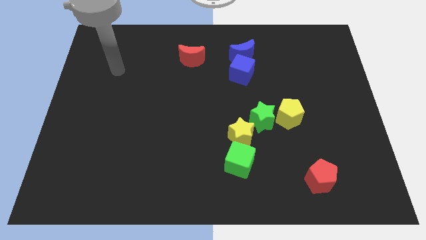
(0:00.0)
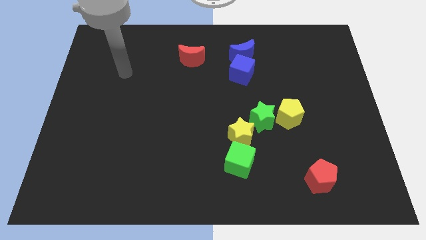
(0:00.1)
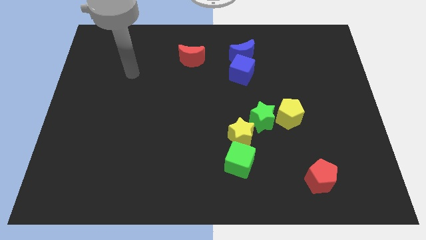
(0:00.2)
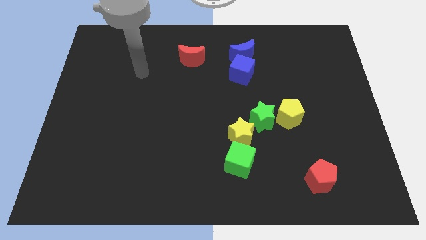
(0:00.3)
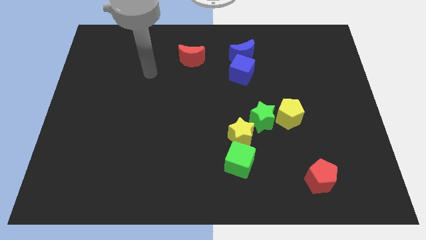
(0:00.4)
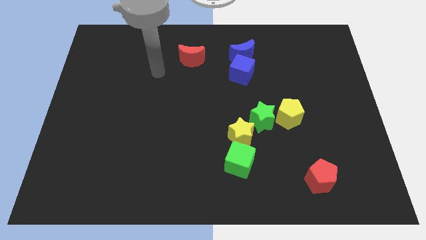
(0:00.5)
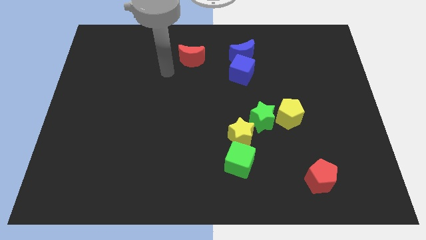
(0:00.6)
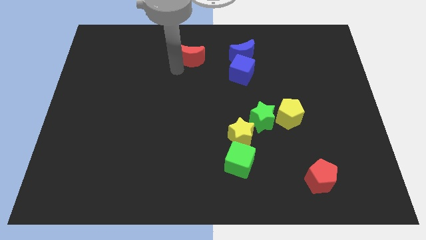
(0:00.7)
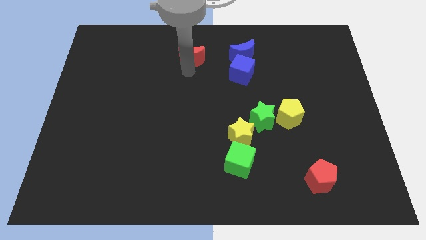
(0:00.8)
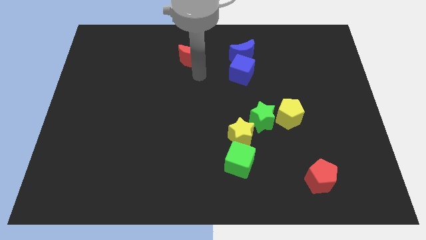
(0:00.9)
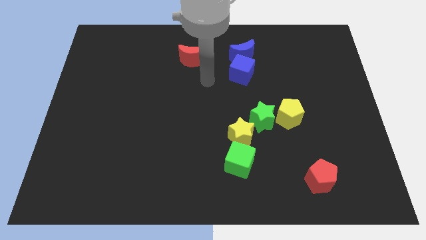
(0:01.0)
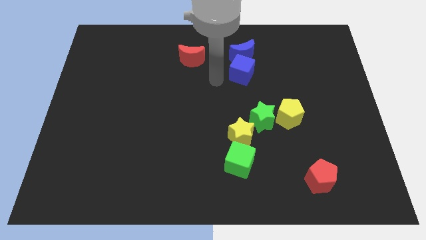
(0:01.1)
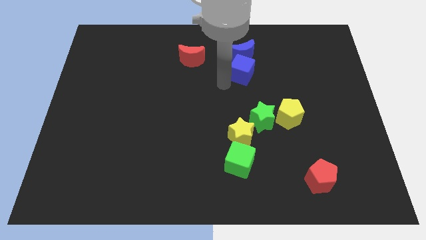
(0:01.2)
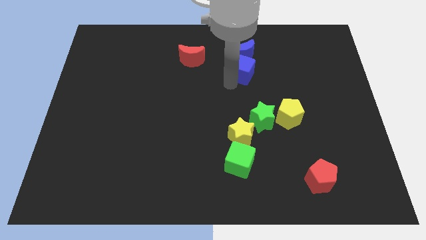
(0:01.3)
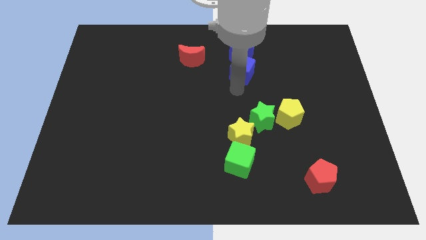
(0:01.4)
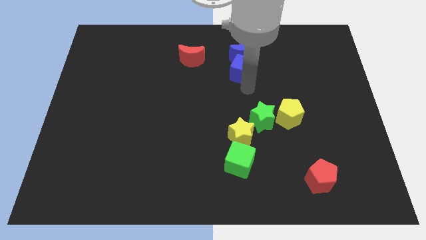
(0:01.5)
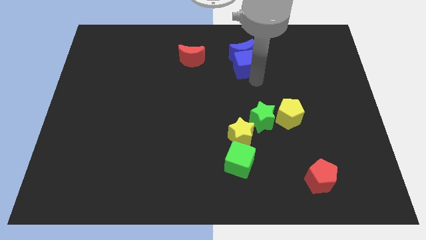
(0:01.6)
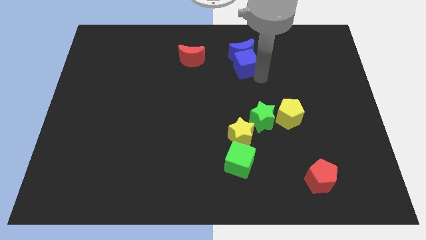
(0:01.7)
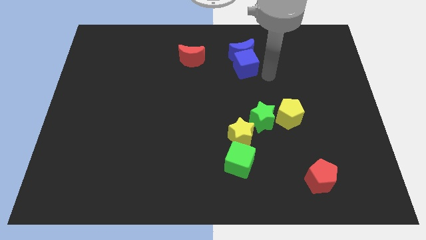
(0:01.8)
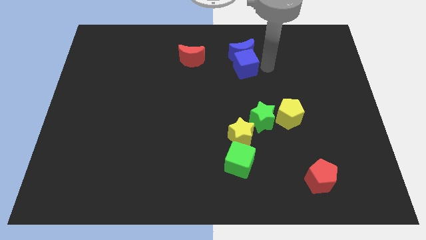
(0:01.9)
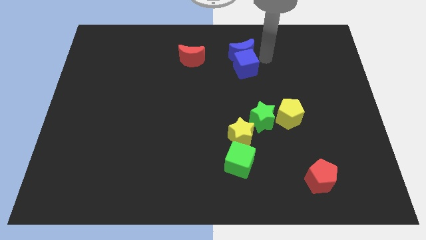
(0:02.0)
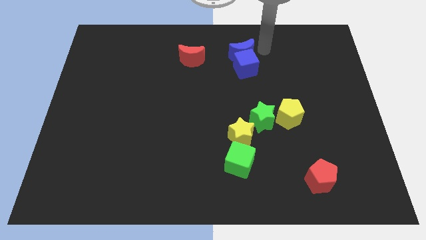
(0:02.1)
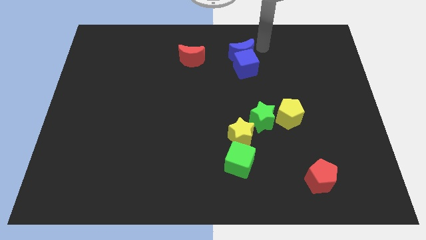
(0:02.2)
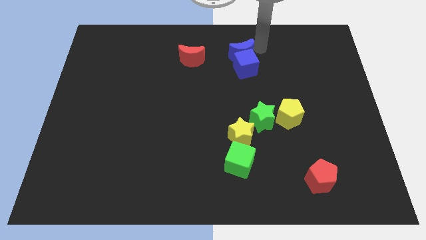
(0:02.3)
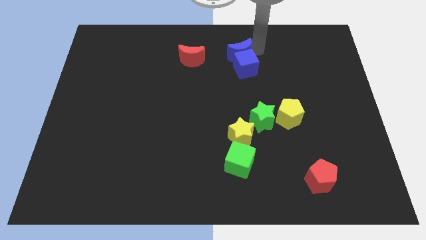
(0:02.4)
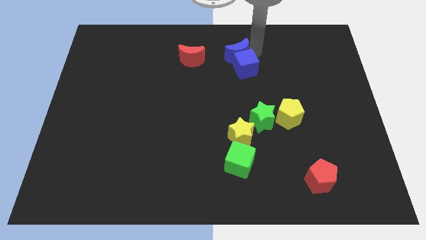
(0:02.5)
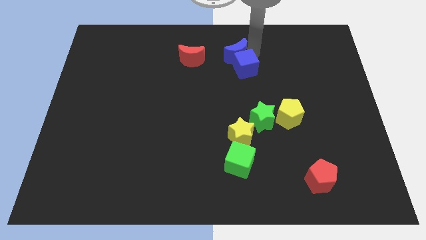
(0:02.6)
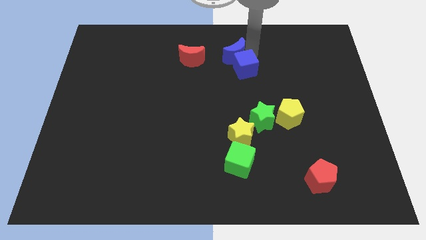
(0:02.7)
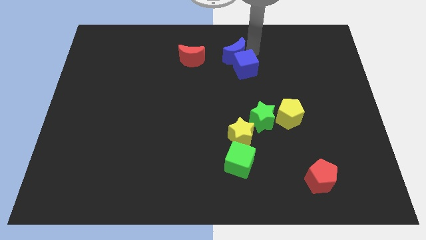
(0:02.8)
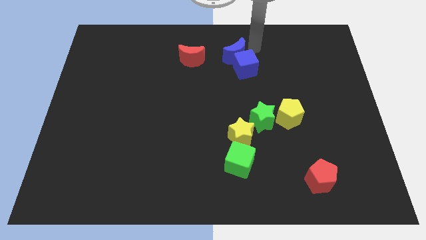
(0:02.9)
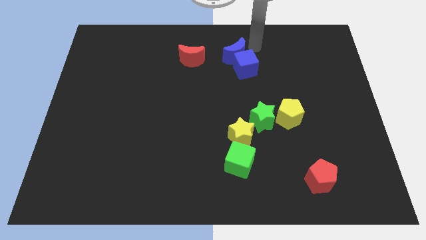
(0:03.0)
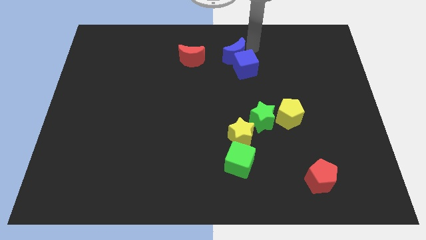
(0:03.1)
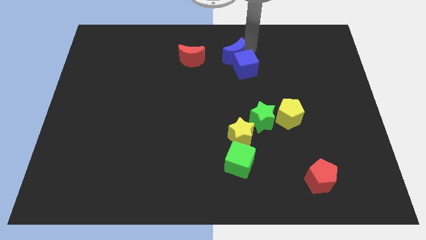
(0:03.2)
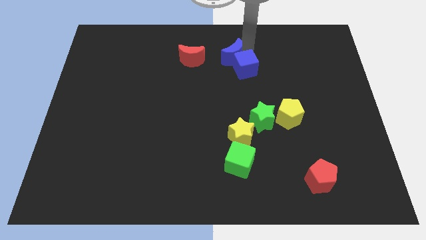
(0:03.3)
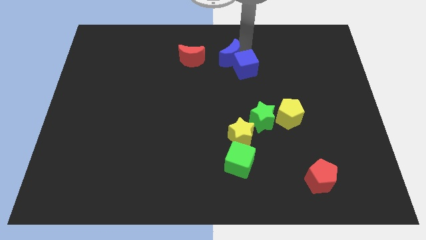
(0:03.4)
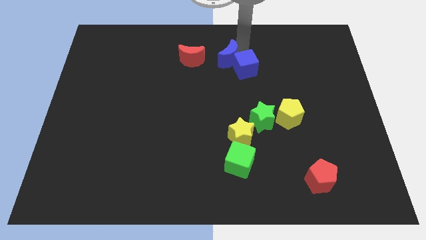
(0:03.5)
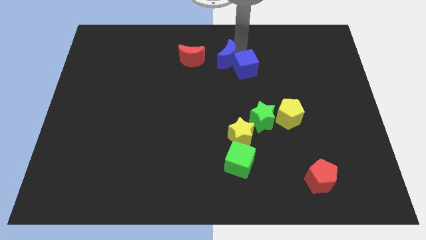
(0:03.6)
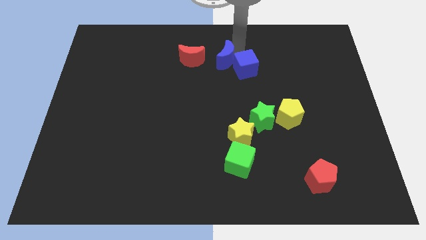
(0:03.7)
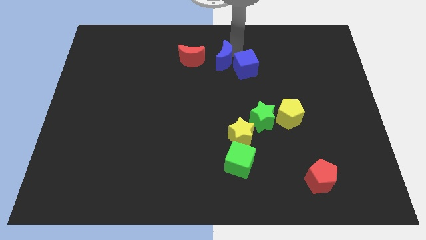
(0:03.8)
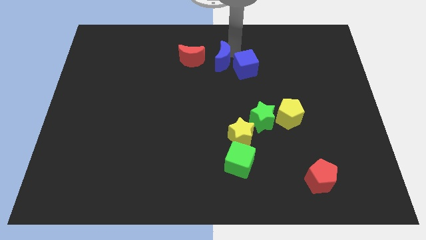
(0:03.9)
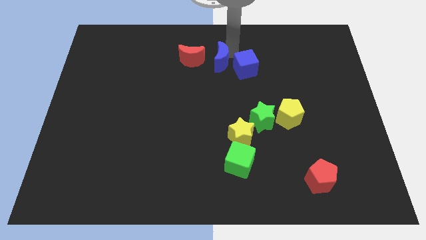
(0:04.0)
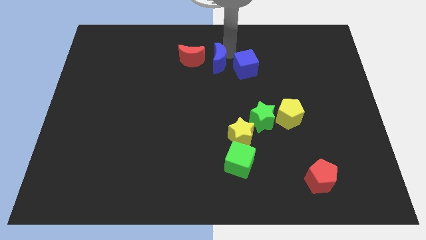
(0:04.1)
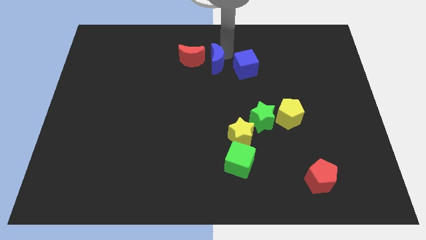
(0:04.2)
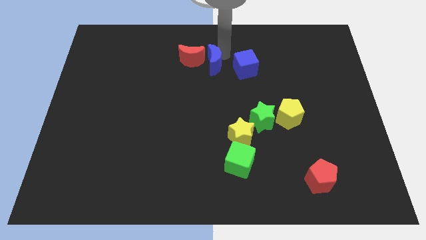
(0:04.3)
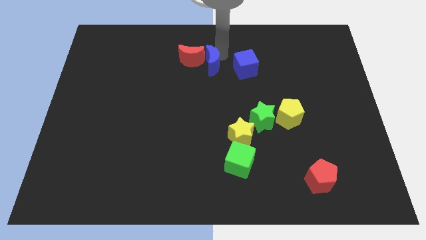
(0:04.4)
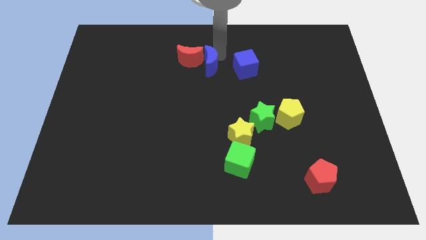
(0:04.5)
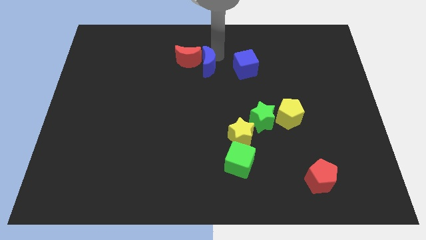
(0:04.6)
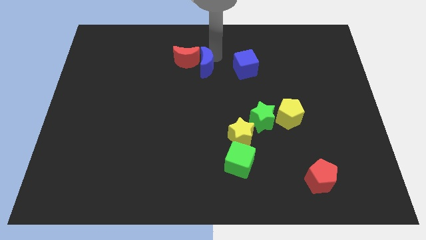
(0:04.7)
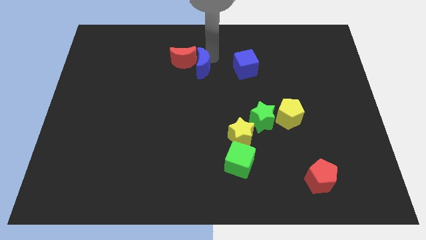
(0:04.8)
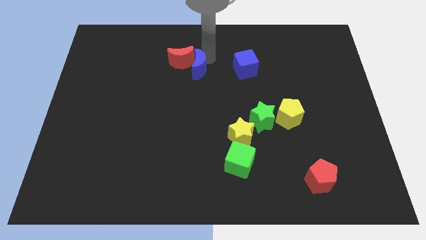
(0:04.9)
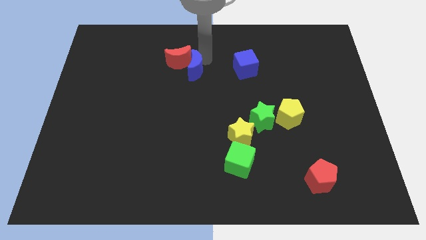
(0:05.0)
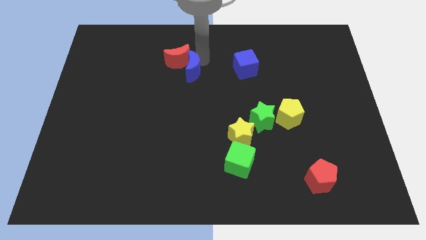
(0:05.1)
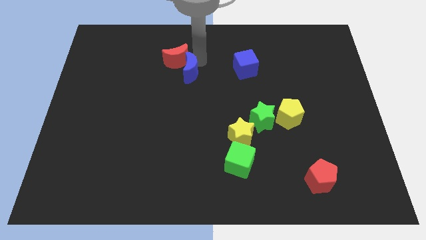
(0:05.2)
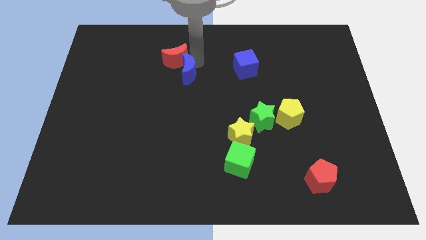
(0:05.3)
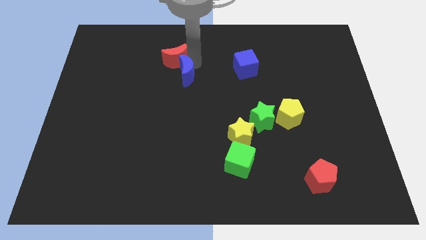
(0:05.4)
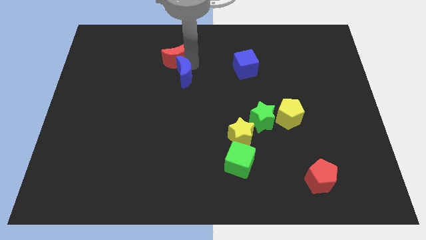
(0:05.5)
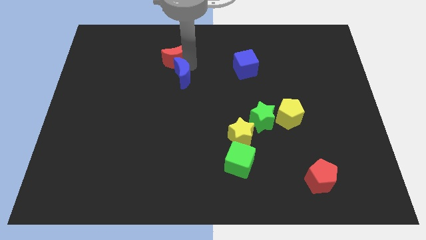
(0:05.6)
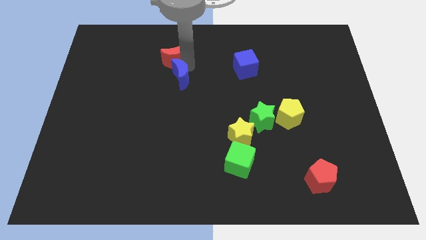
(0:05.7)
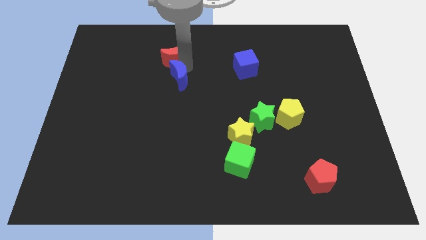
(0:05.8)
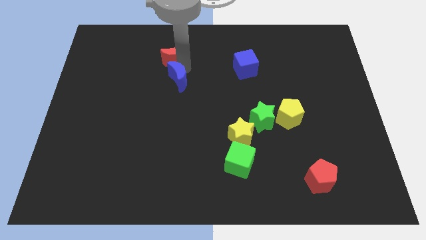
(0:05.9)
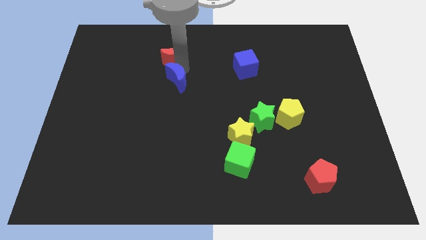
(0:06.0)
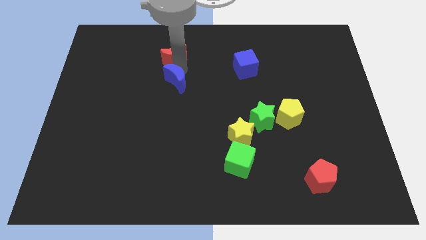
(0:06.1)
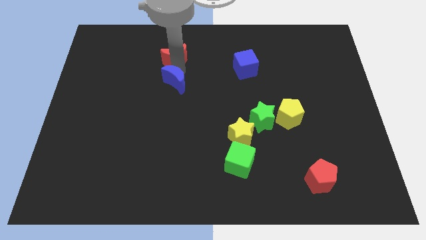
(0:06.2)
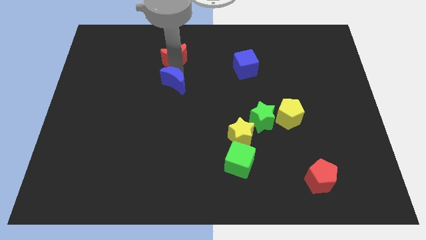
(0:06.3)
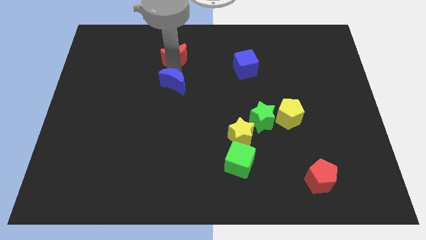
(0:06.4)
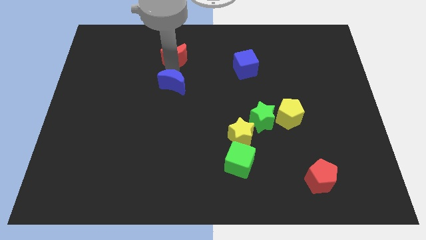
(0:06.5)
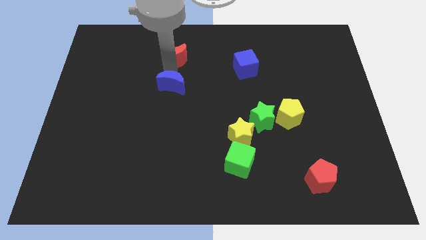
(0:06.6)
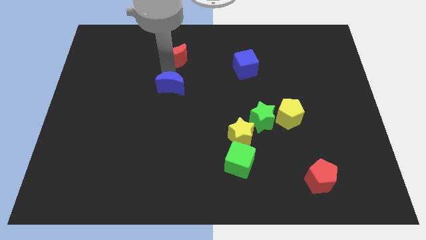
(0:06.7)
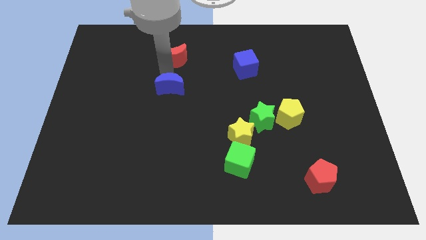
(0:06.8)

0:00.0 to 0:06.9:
slide the blue moon diagonally downwards and to the left

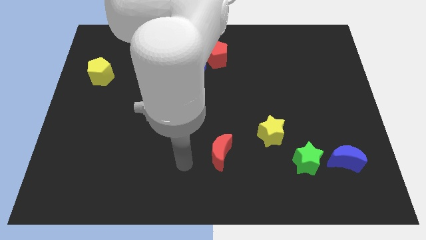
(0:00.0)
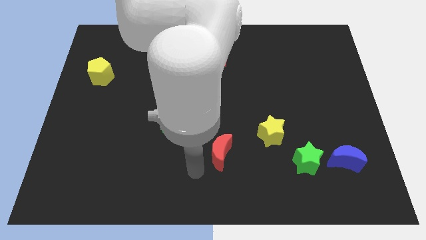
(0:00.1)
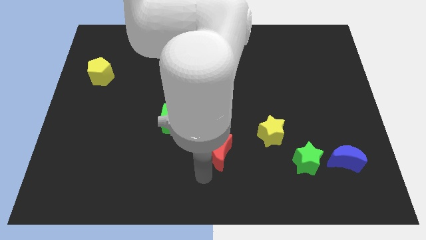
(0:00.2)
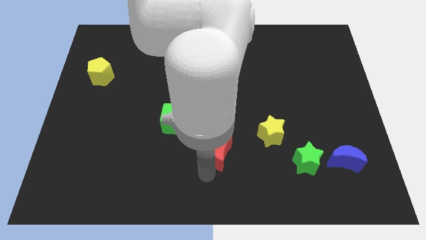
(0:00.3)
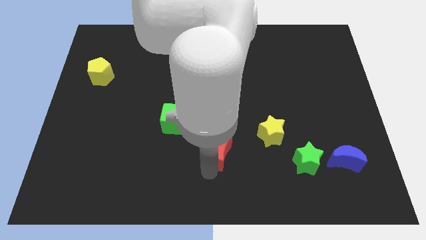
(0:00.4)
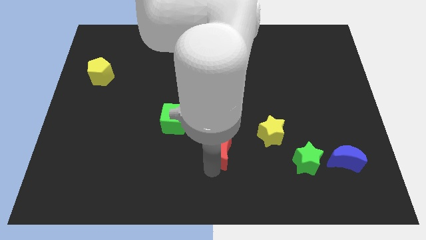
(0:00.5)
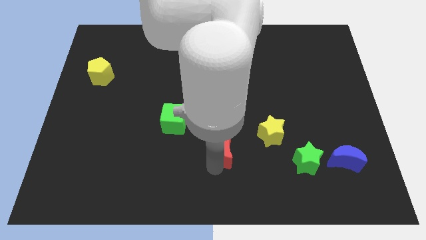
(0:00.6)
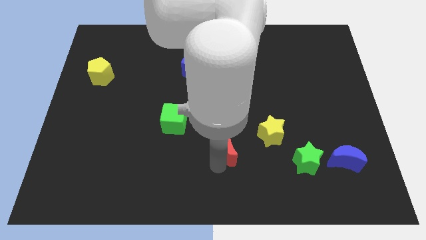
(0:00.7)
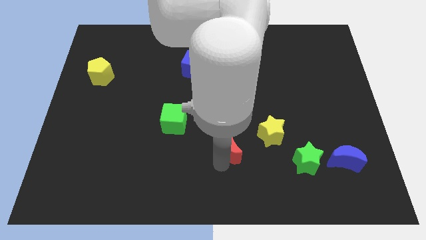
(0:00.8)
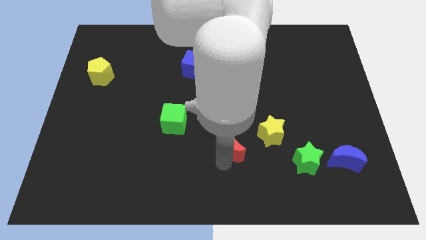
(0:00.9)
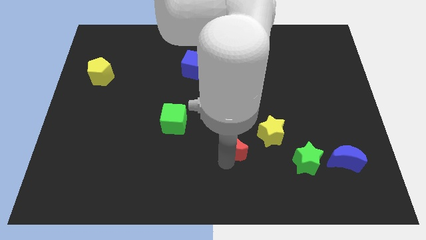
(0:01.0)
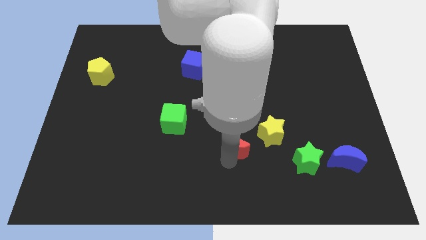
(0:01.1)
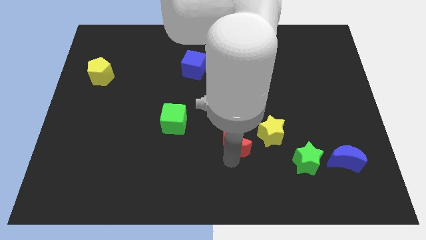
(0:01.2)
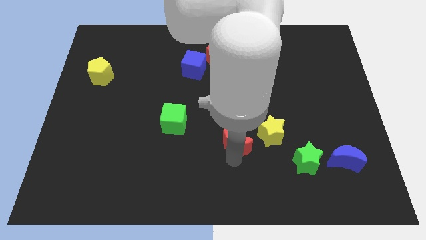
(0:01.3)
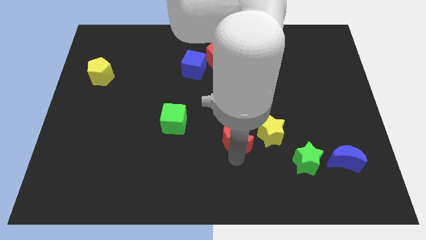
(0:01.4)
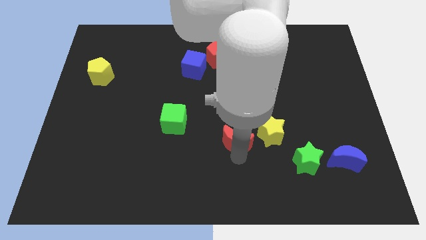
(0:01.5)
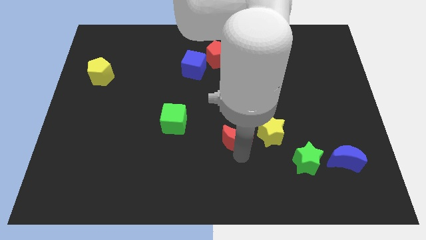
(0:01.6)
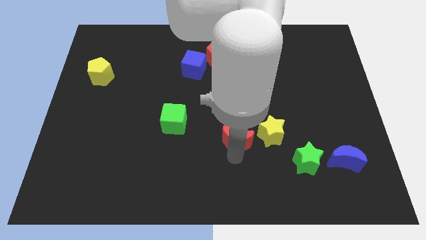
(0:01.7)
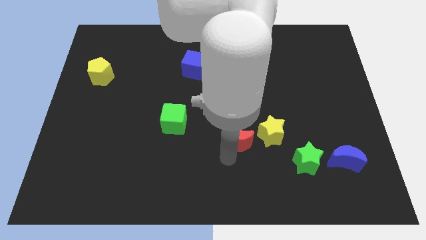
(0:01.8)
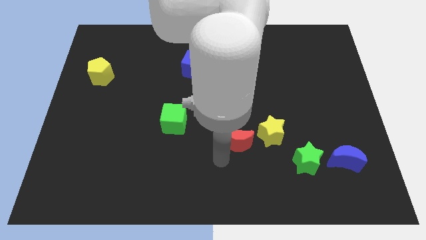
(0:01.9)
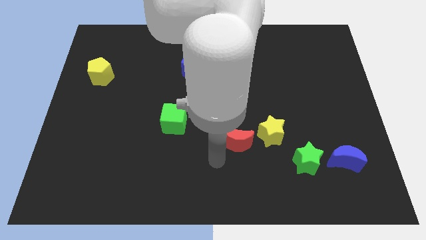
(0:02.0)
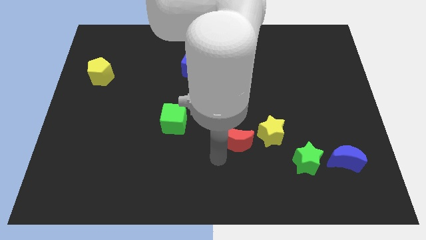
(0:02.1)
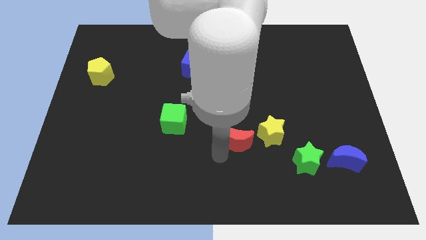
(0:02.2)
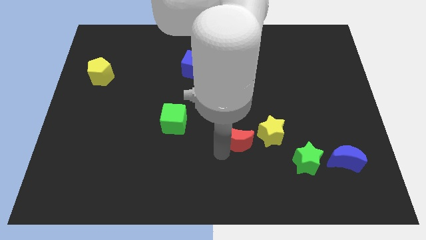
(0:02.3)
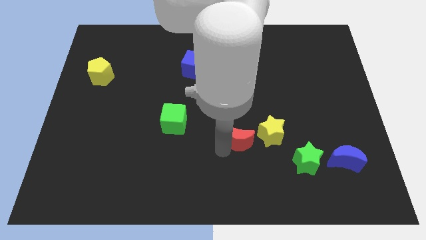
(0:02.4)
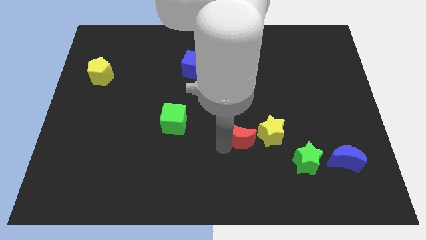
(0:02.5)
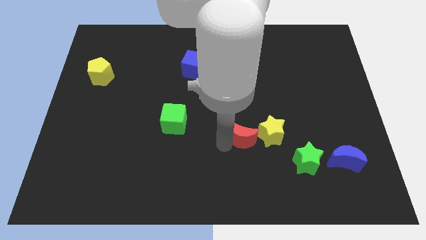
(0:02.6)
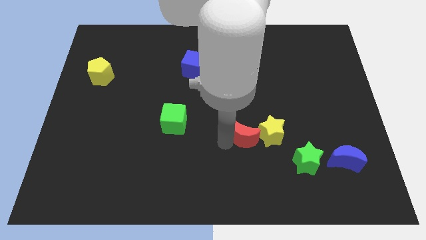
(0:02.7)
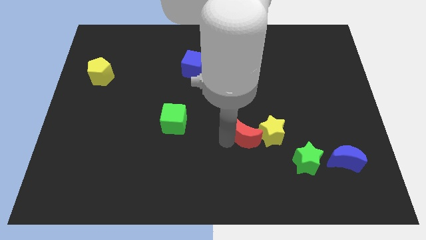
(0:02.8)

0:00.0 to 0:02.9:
slide the red moon a little bit upwards and right diagonally
